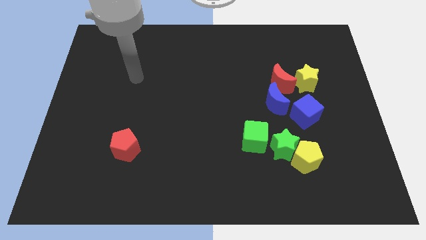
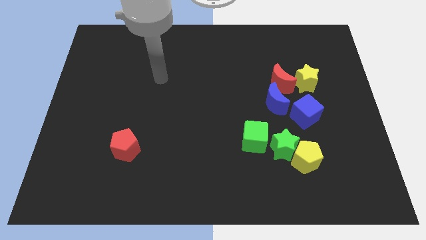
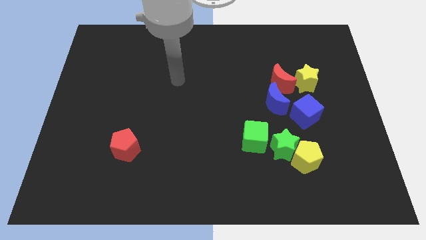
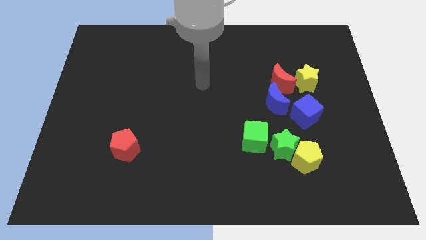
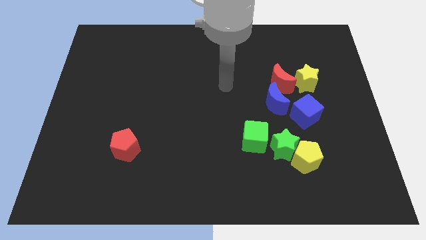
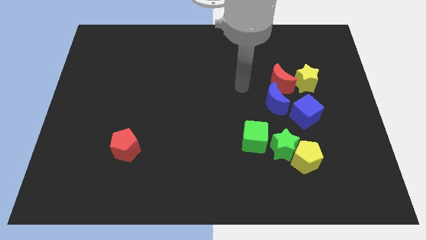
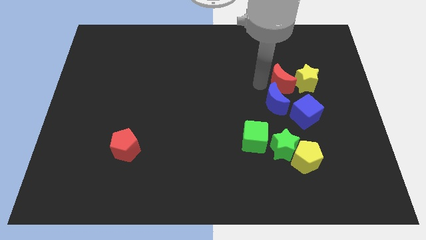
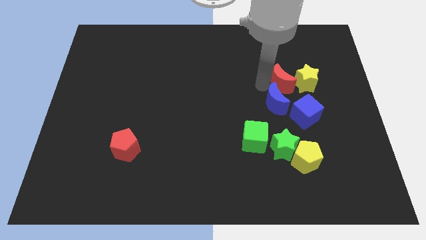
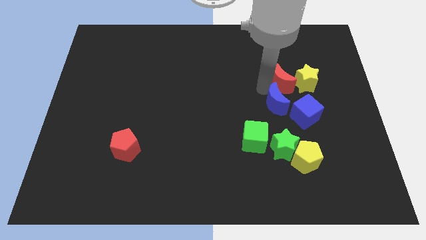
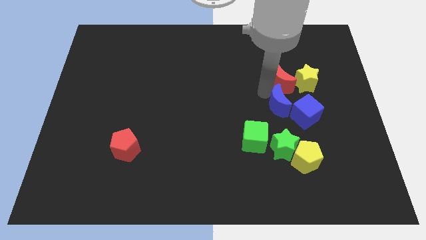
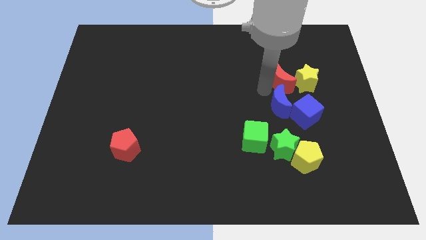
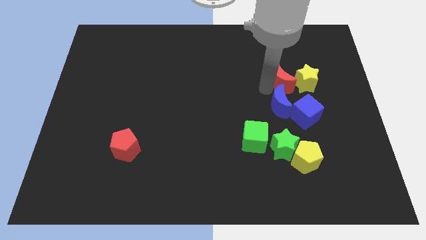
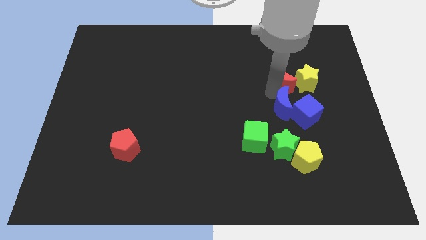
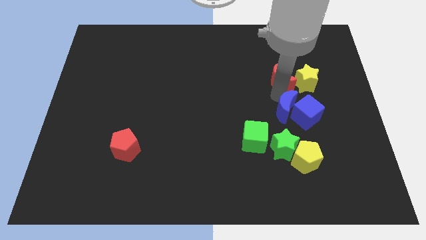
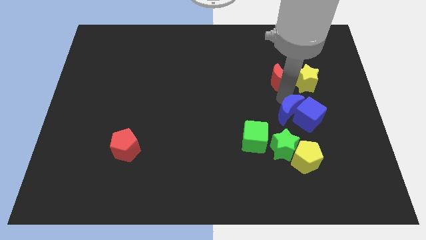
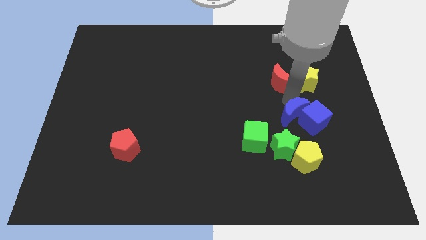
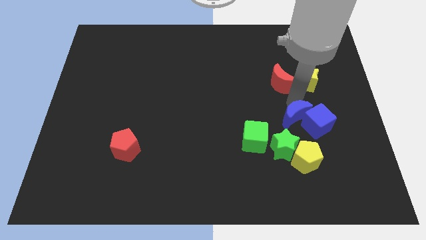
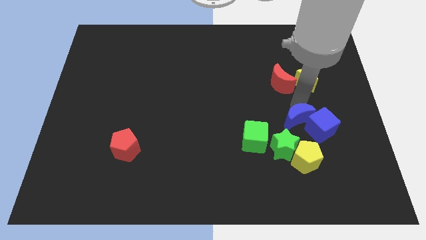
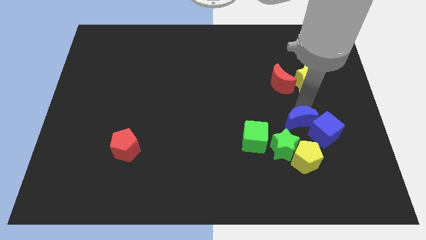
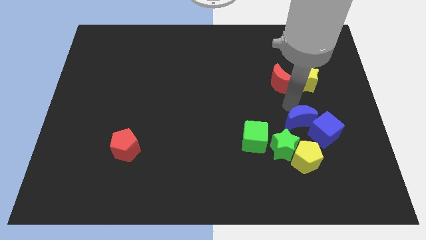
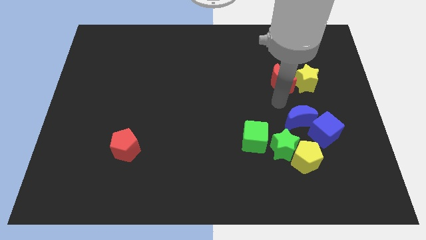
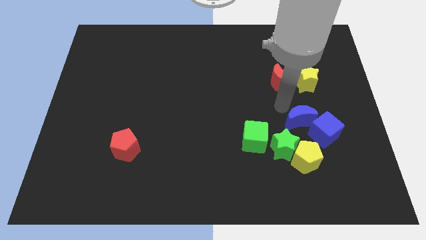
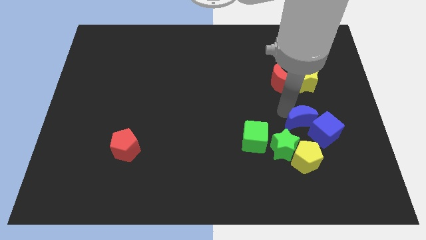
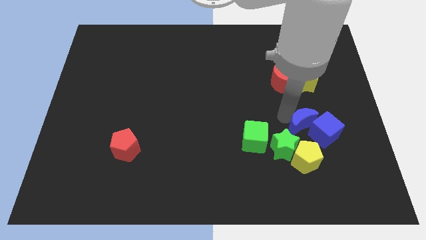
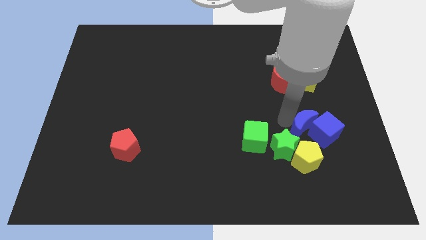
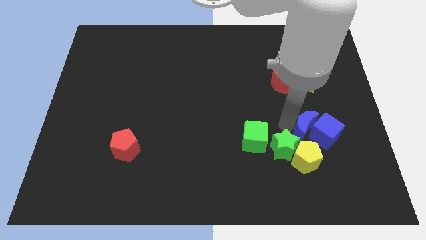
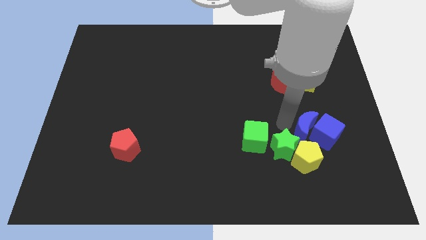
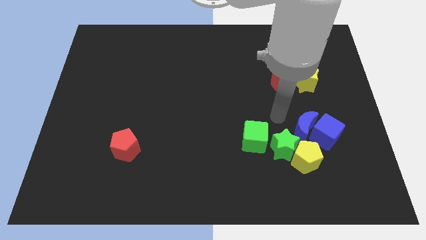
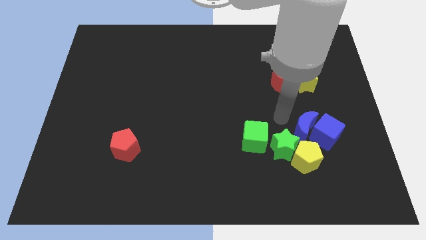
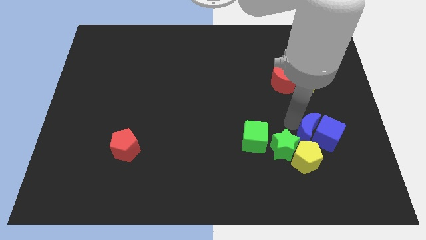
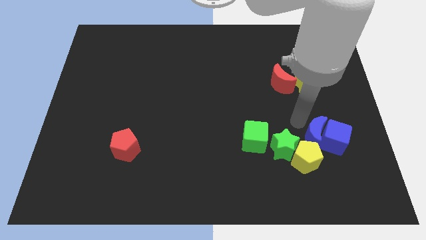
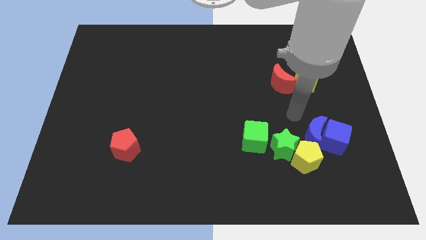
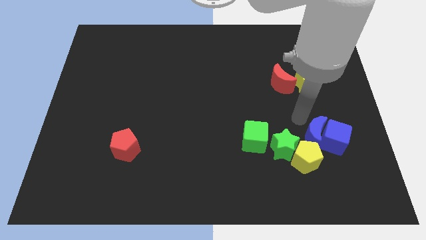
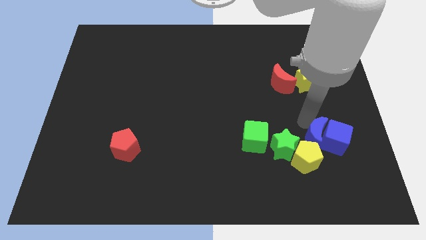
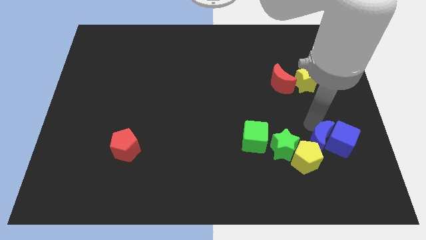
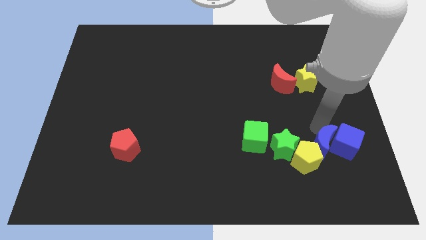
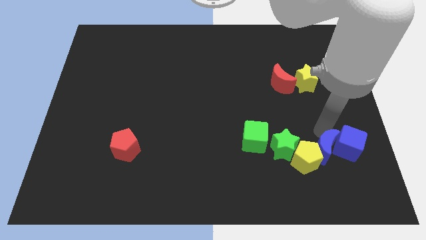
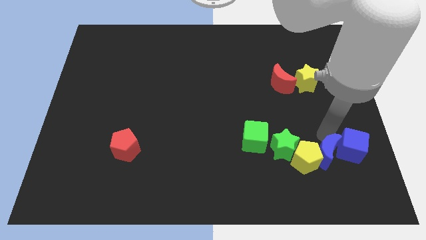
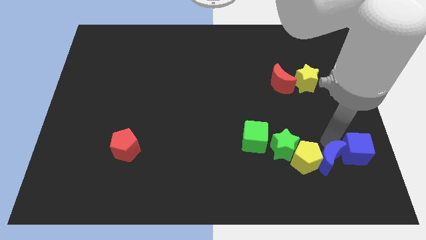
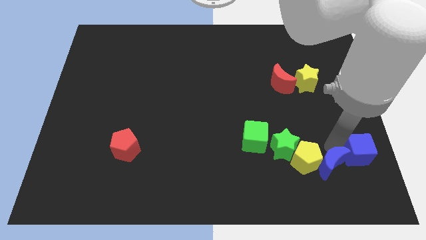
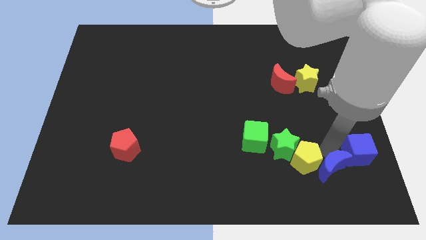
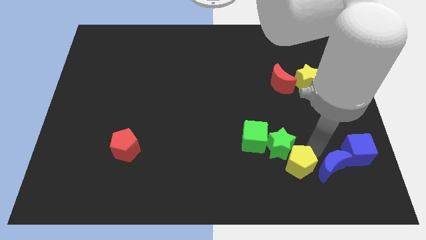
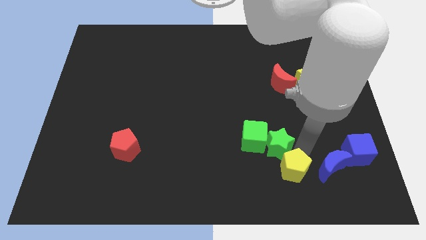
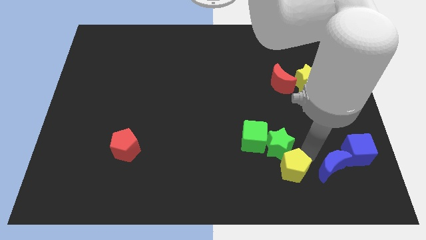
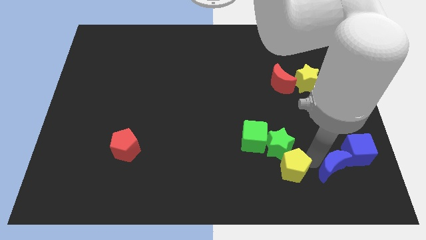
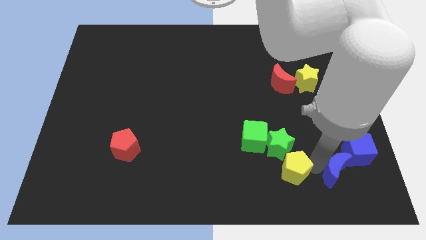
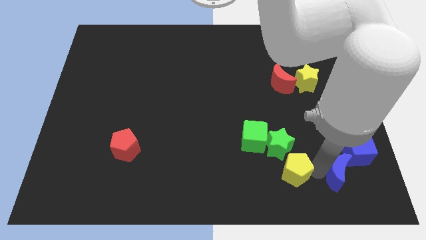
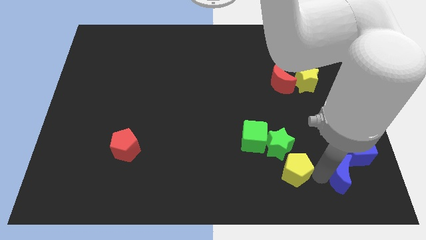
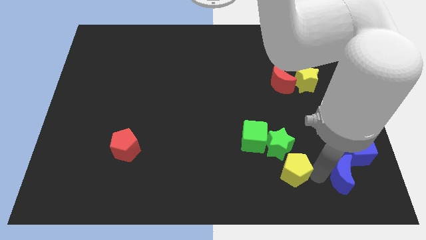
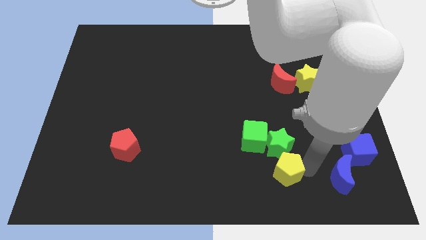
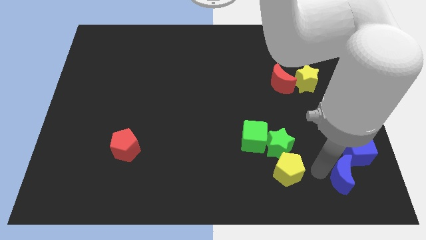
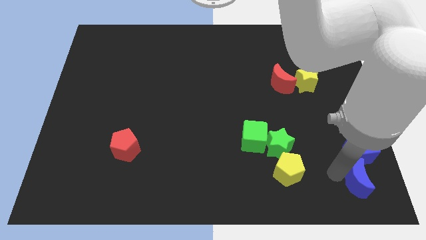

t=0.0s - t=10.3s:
slide the blue moon to the lower right corner
